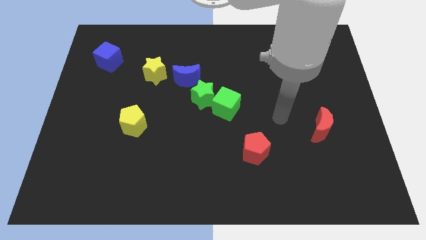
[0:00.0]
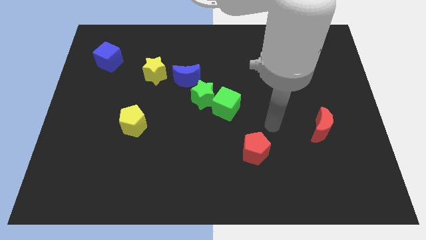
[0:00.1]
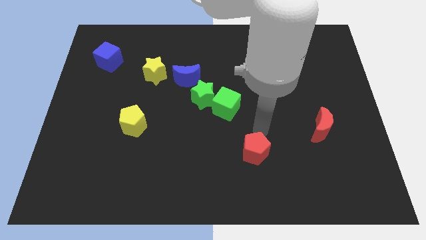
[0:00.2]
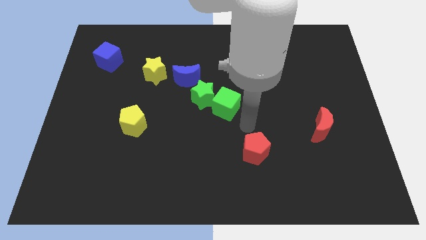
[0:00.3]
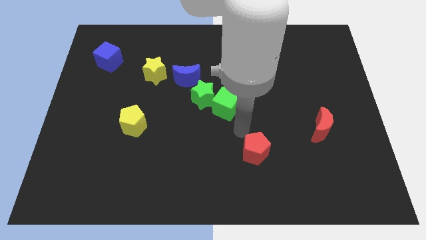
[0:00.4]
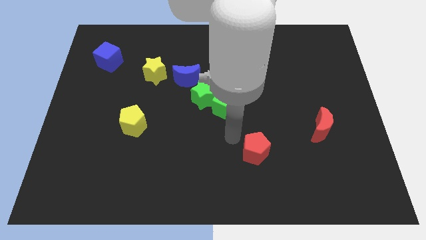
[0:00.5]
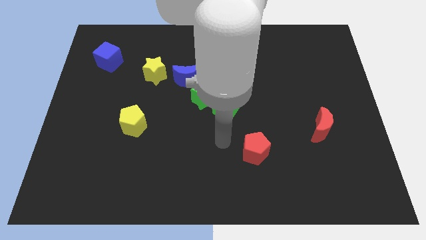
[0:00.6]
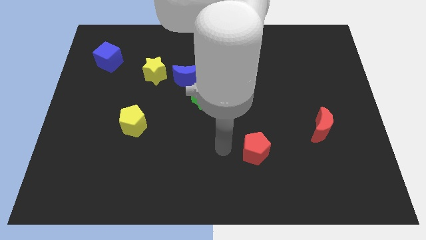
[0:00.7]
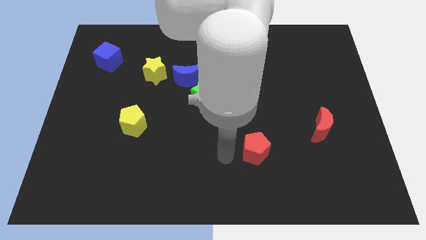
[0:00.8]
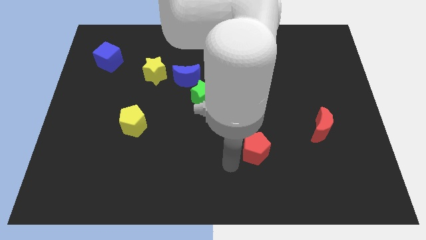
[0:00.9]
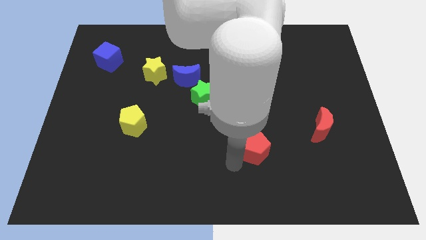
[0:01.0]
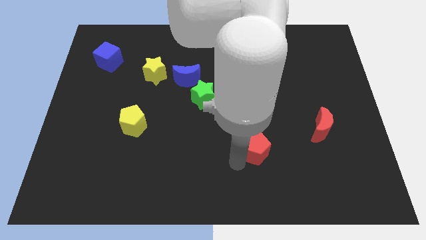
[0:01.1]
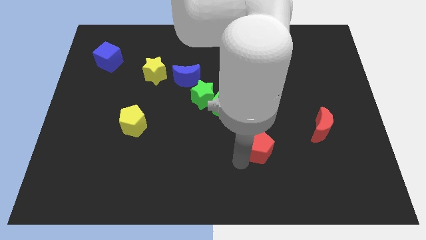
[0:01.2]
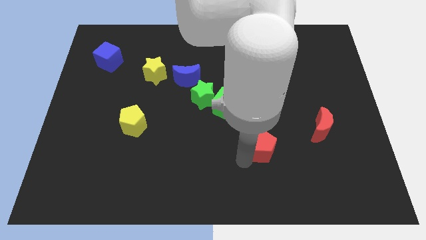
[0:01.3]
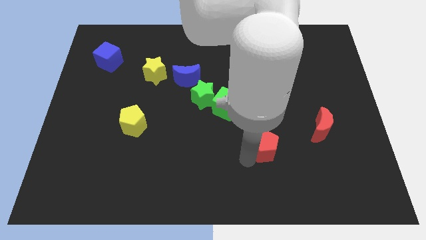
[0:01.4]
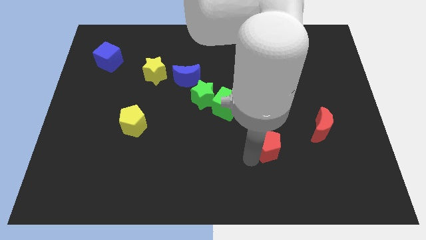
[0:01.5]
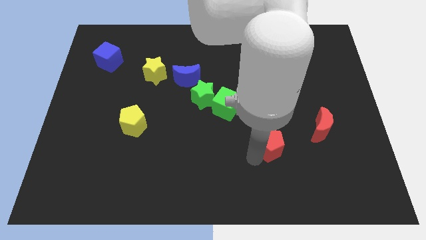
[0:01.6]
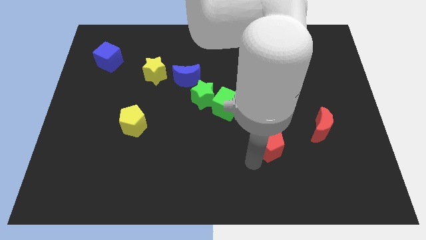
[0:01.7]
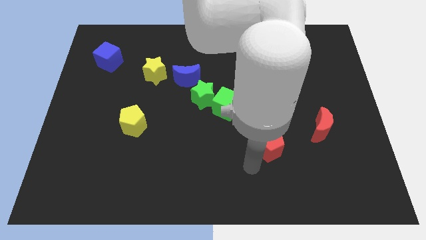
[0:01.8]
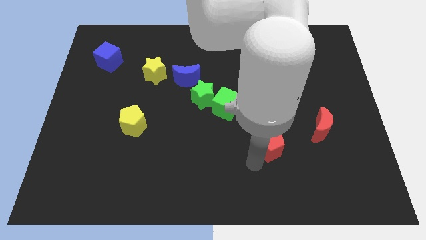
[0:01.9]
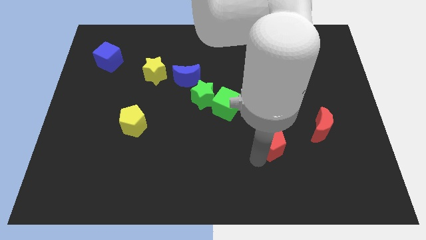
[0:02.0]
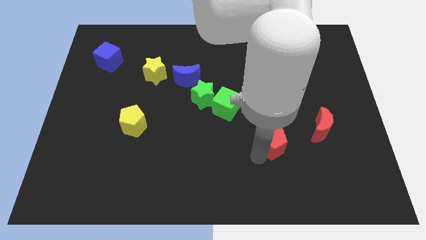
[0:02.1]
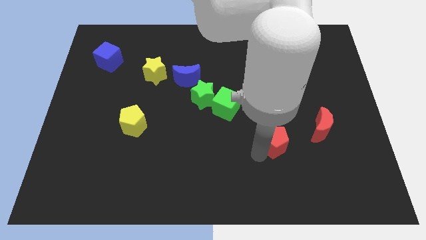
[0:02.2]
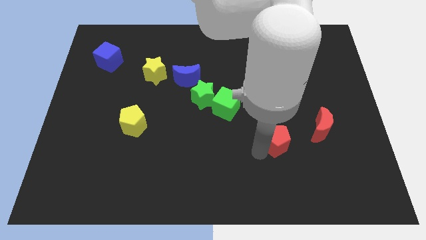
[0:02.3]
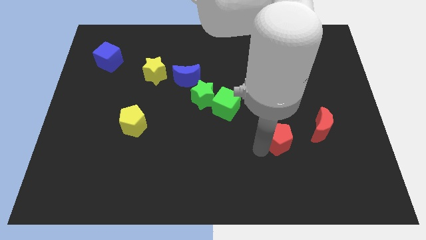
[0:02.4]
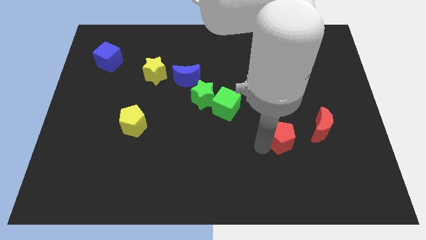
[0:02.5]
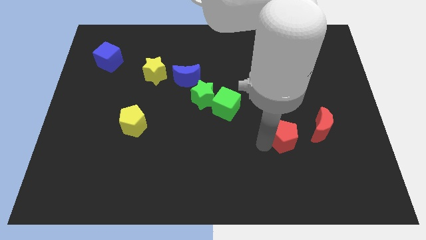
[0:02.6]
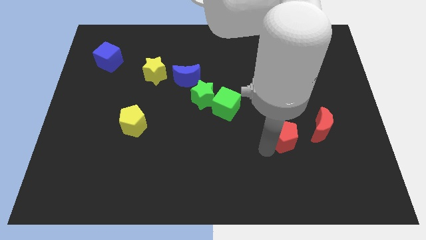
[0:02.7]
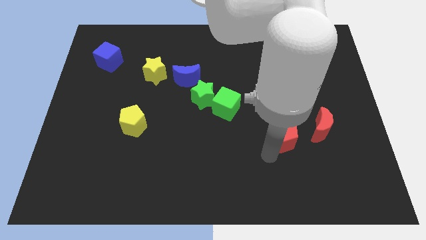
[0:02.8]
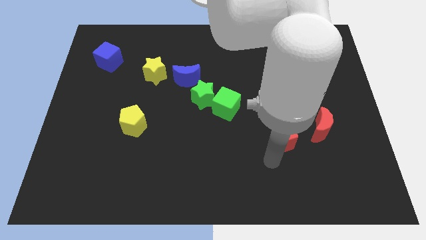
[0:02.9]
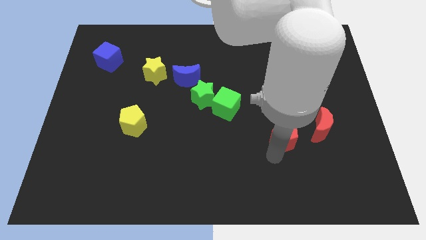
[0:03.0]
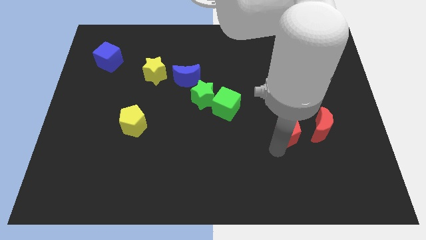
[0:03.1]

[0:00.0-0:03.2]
move the red pentagon somewhat up and right diagonally

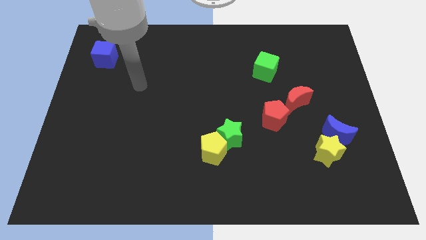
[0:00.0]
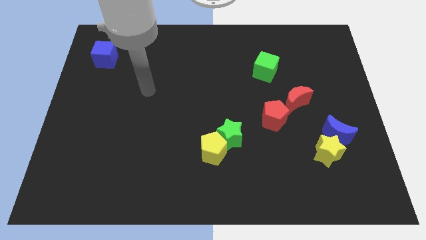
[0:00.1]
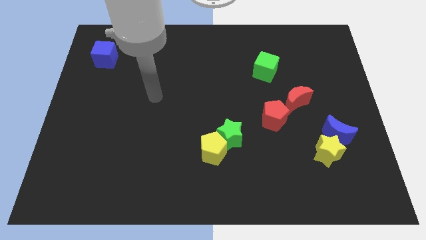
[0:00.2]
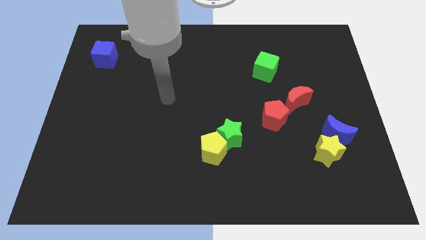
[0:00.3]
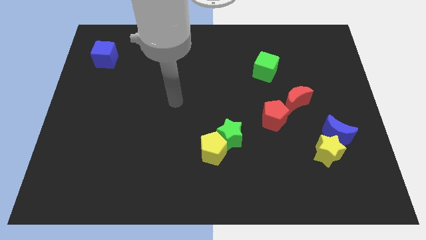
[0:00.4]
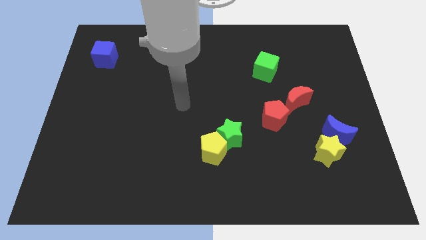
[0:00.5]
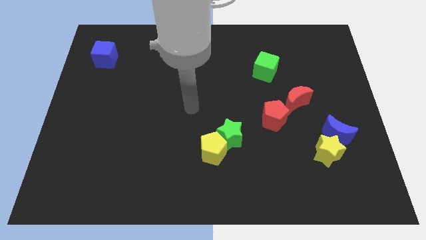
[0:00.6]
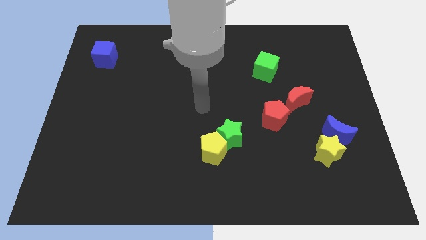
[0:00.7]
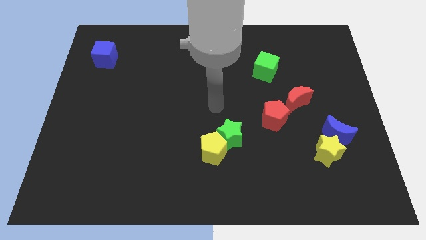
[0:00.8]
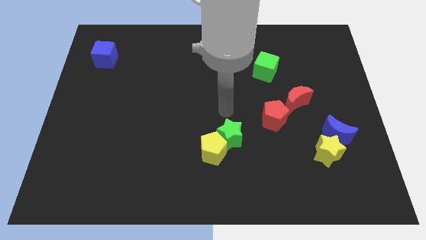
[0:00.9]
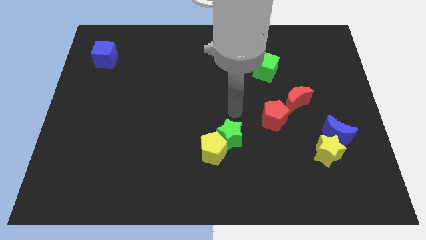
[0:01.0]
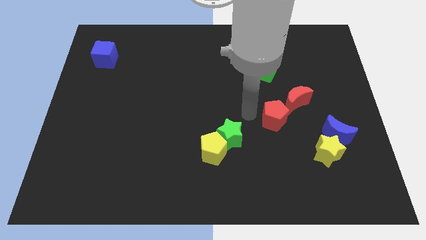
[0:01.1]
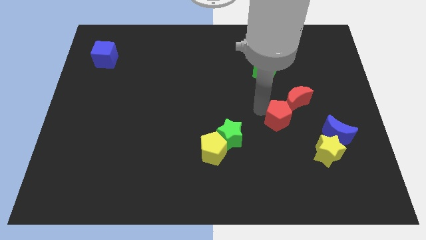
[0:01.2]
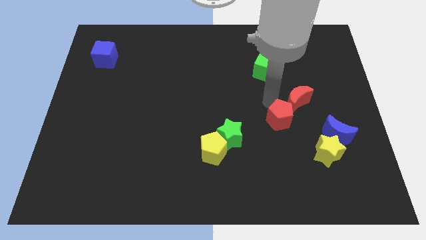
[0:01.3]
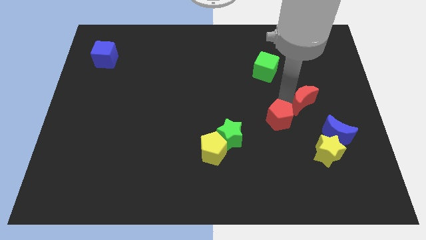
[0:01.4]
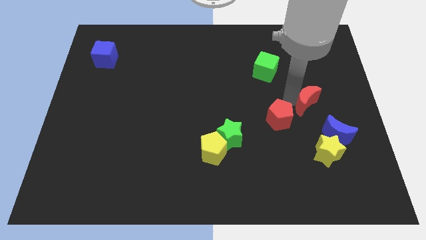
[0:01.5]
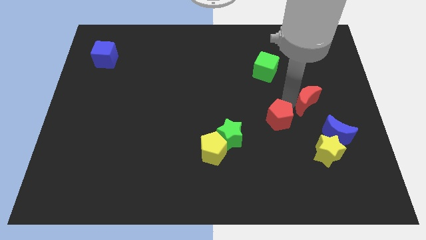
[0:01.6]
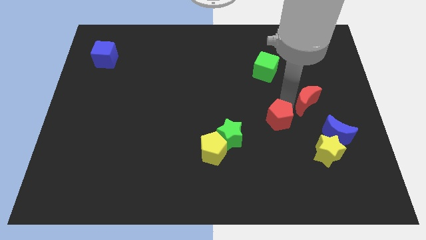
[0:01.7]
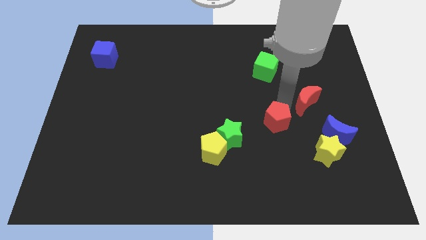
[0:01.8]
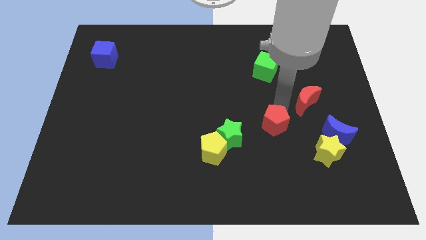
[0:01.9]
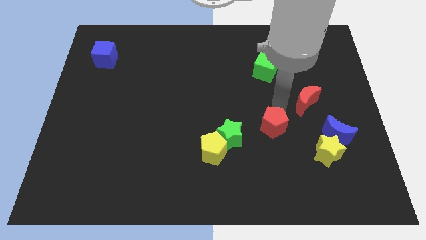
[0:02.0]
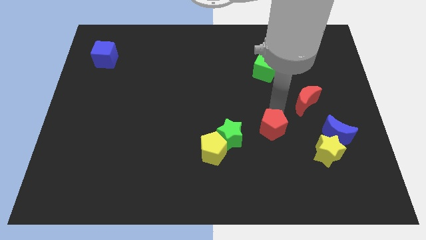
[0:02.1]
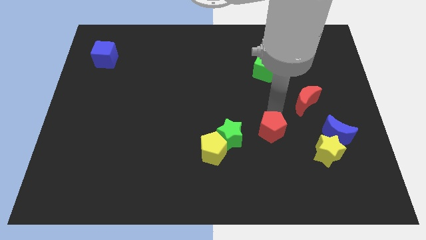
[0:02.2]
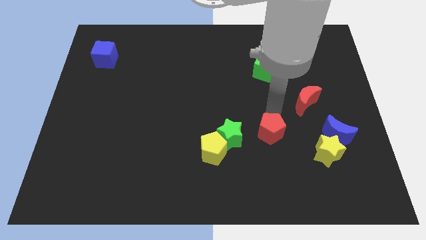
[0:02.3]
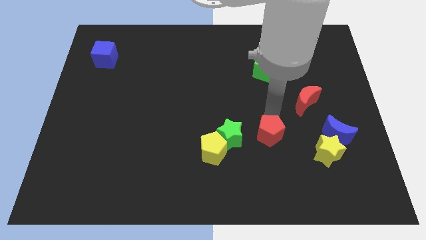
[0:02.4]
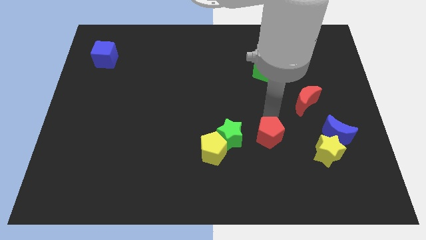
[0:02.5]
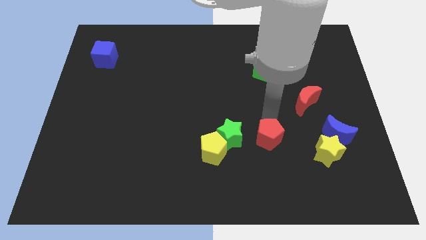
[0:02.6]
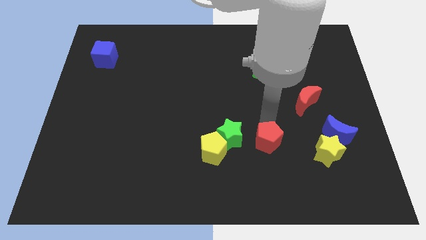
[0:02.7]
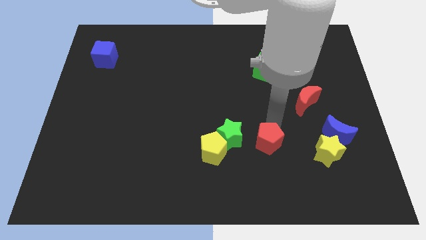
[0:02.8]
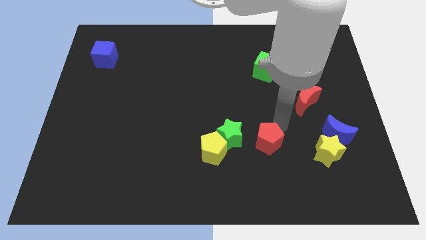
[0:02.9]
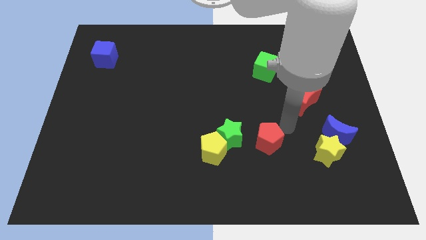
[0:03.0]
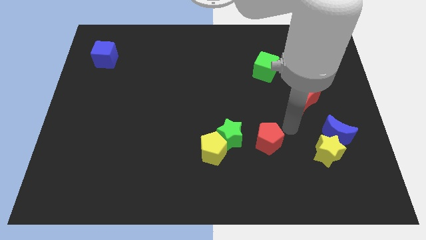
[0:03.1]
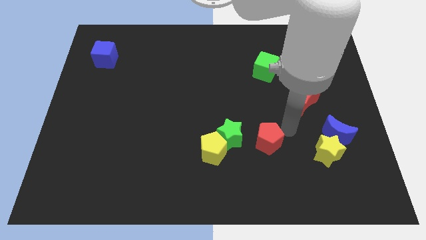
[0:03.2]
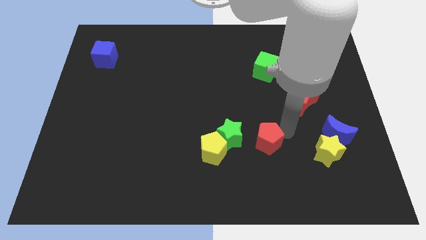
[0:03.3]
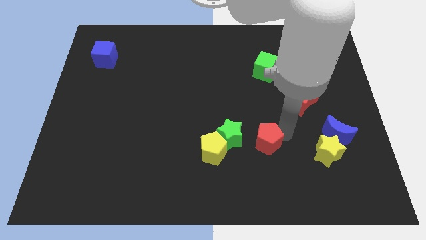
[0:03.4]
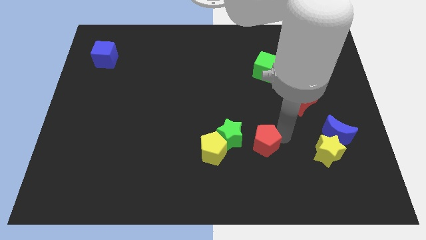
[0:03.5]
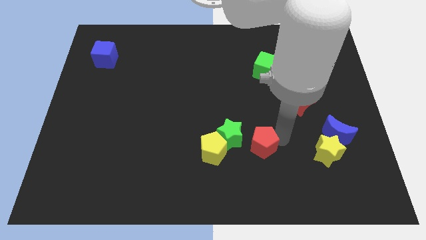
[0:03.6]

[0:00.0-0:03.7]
push the red pentagon downwards and then to the left a bit

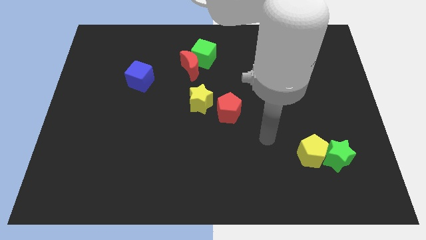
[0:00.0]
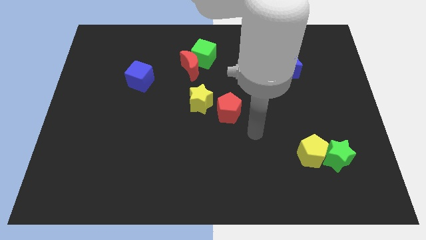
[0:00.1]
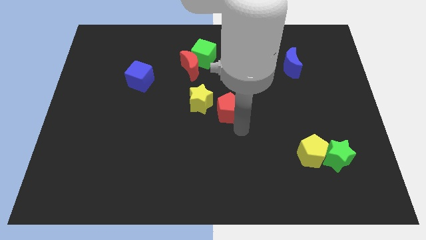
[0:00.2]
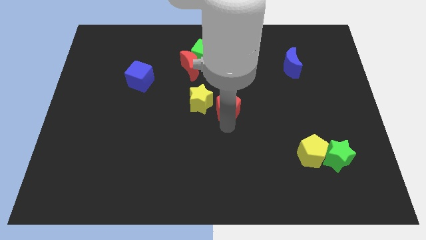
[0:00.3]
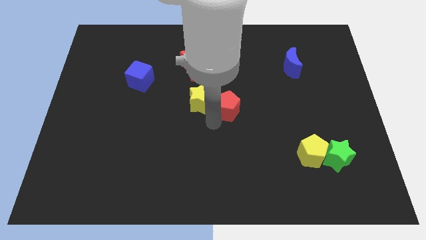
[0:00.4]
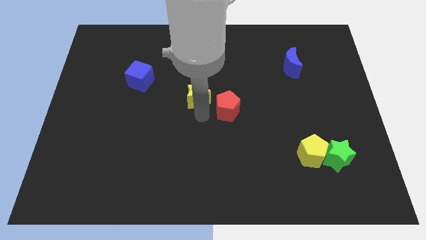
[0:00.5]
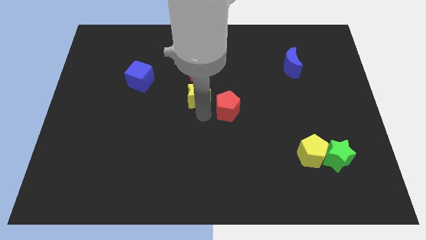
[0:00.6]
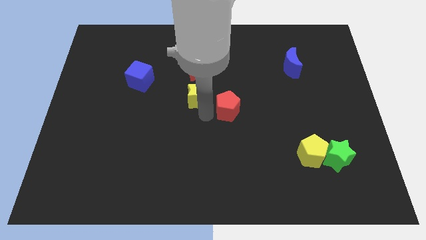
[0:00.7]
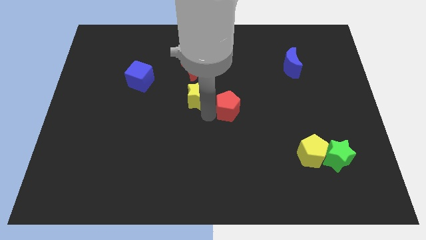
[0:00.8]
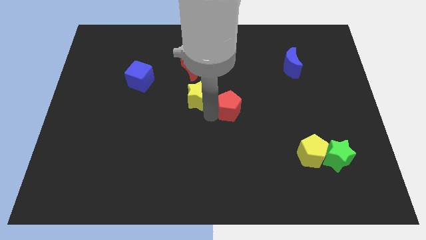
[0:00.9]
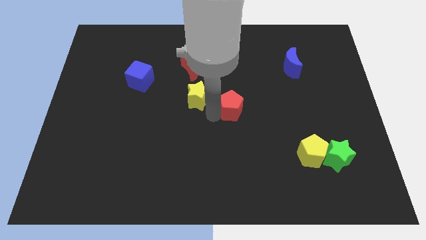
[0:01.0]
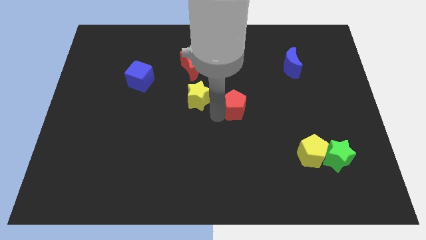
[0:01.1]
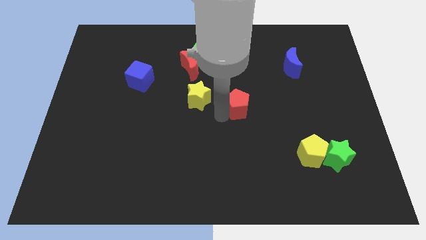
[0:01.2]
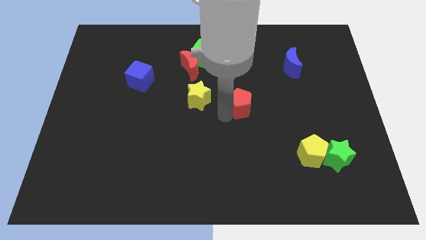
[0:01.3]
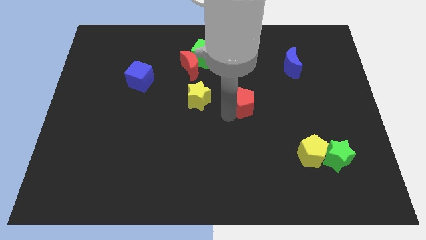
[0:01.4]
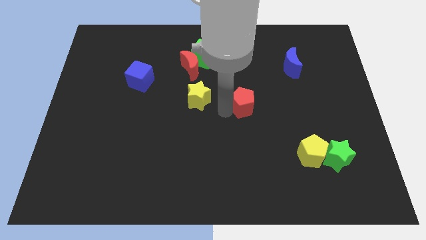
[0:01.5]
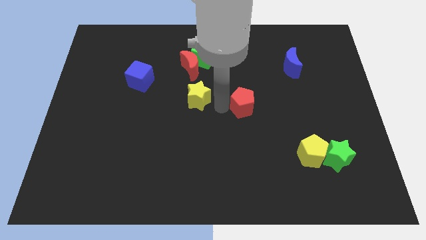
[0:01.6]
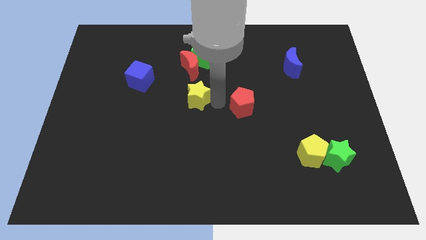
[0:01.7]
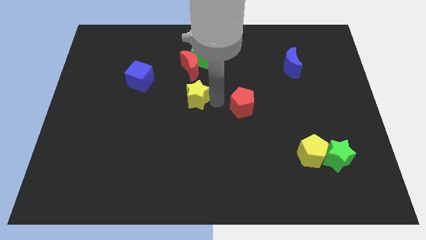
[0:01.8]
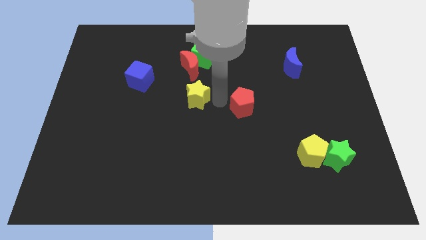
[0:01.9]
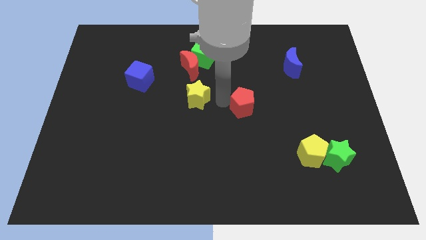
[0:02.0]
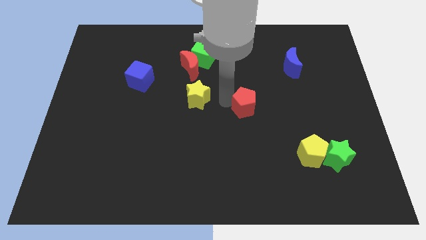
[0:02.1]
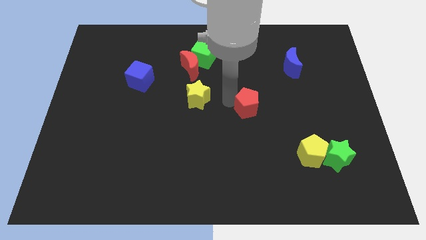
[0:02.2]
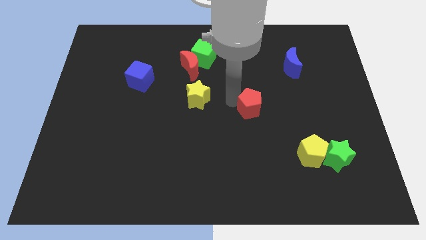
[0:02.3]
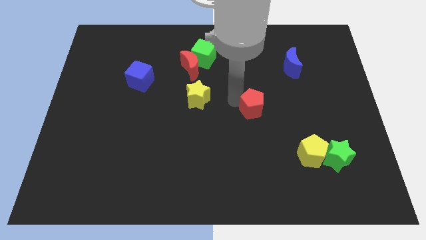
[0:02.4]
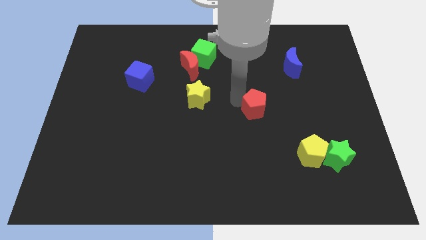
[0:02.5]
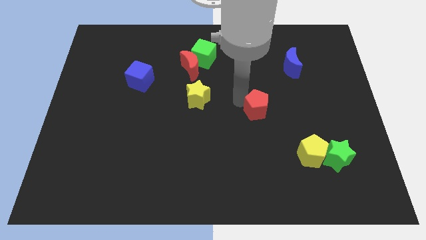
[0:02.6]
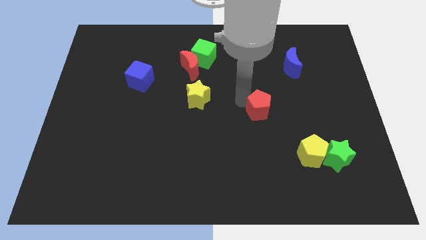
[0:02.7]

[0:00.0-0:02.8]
push the red pentagon right slightly
